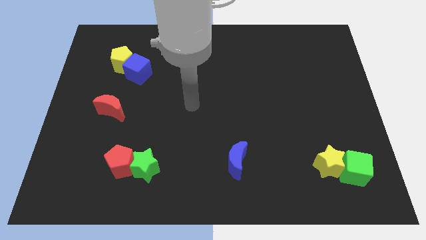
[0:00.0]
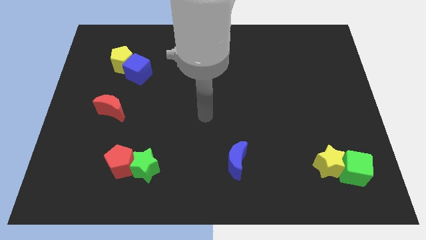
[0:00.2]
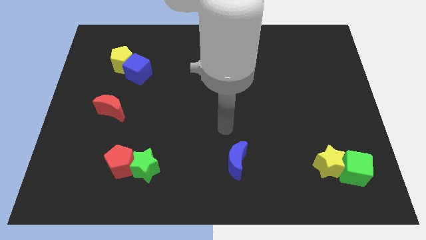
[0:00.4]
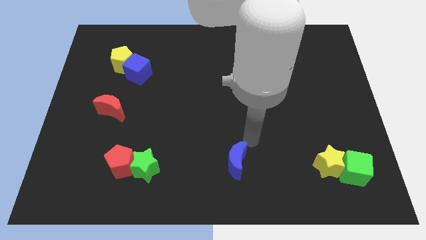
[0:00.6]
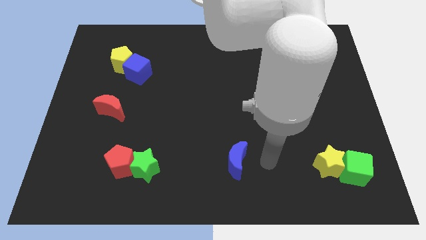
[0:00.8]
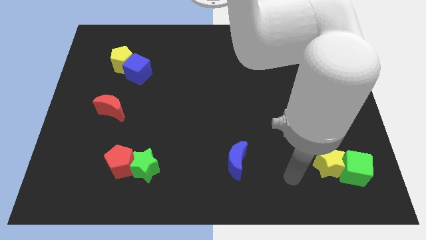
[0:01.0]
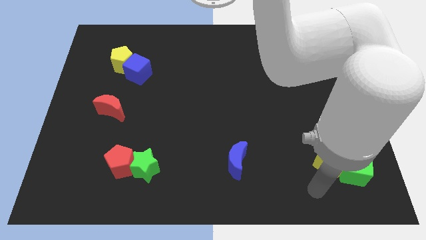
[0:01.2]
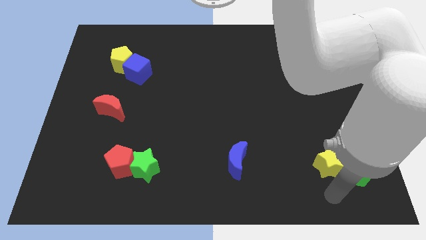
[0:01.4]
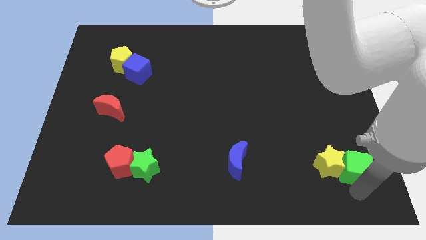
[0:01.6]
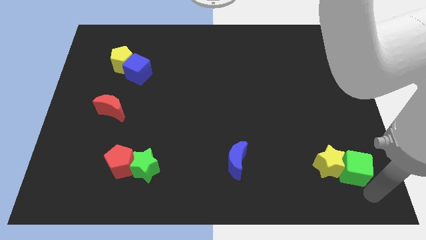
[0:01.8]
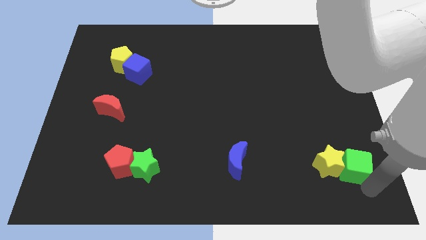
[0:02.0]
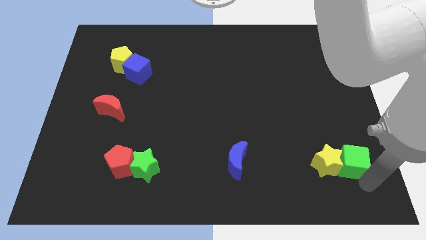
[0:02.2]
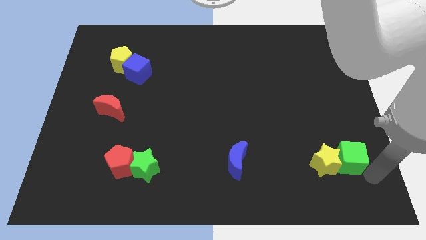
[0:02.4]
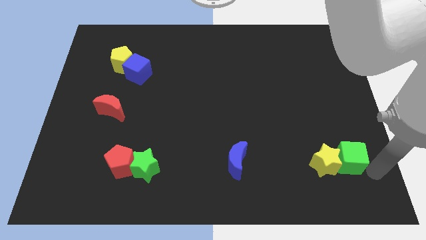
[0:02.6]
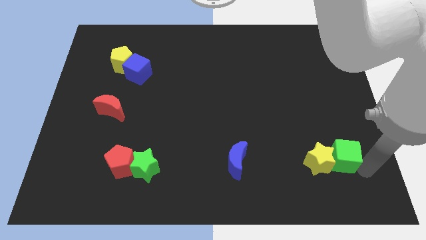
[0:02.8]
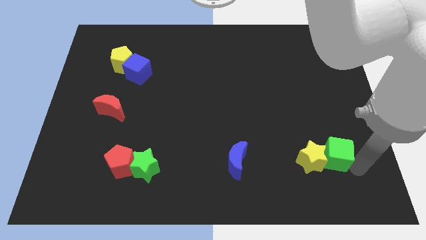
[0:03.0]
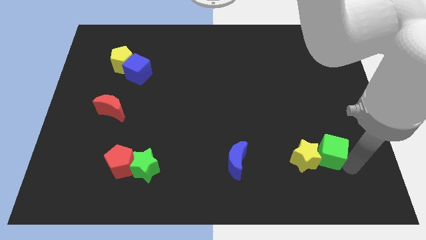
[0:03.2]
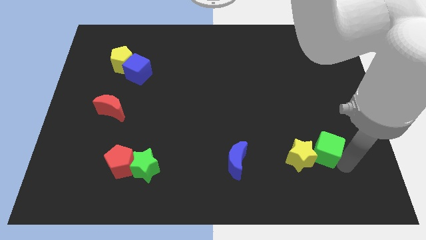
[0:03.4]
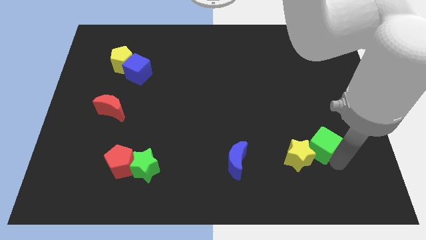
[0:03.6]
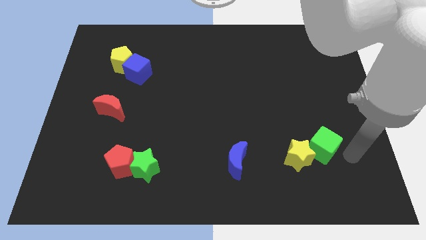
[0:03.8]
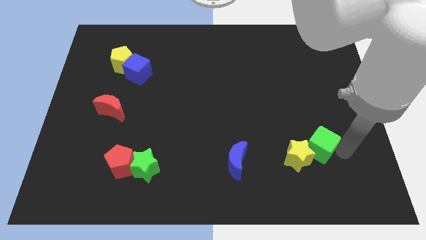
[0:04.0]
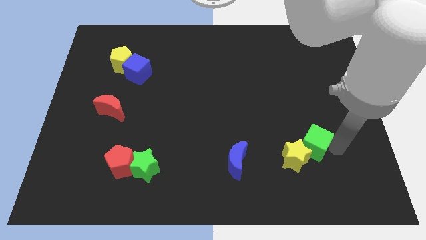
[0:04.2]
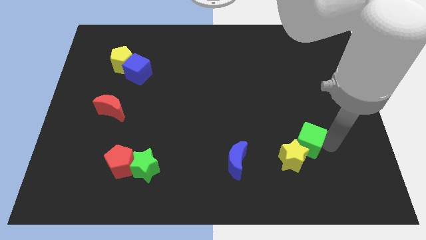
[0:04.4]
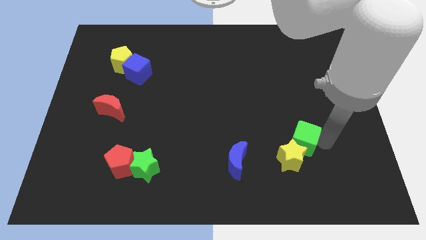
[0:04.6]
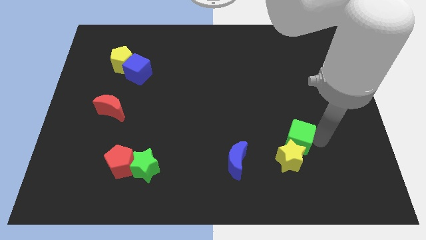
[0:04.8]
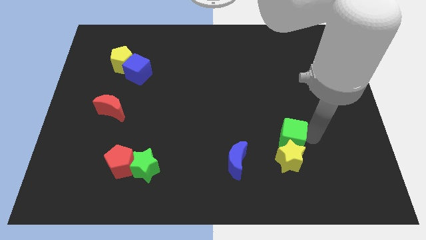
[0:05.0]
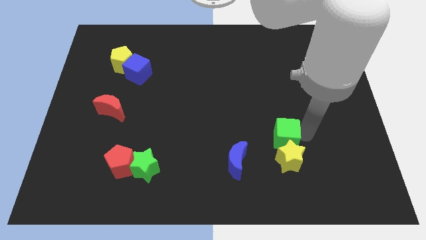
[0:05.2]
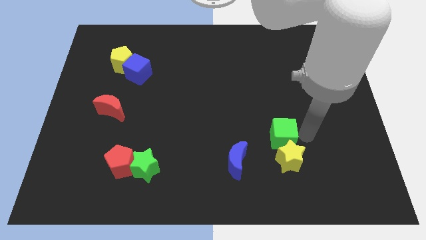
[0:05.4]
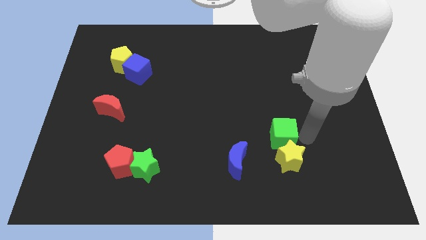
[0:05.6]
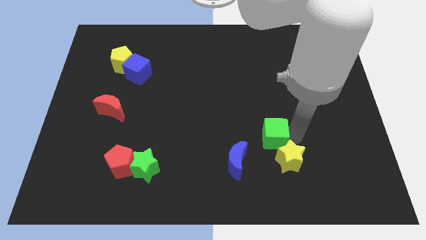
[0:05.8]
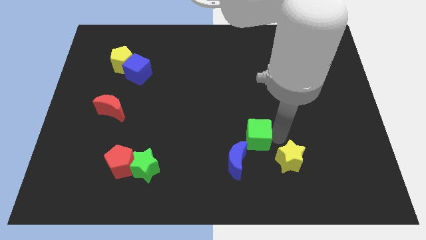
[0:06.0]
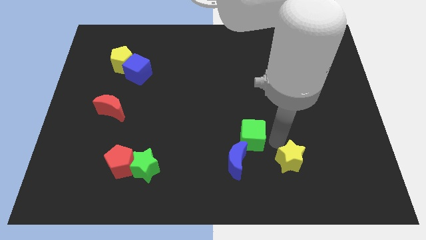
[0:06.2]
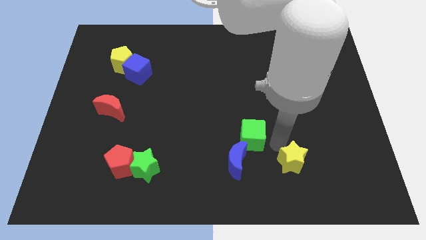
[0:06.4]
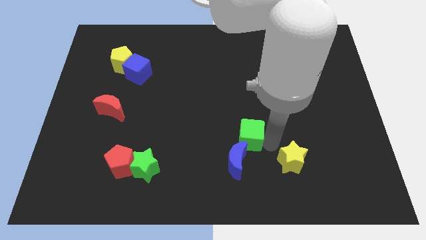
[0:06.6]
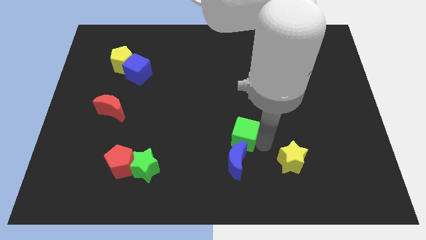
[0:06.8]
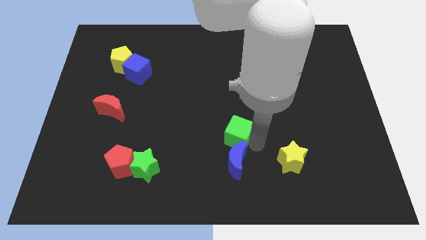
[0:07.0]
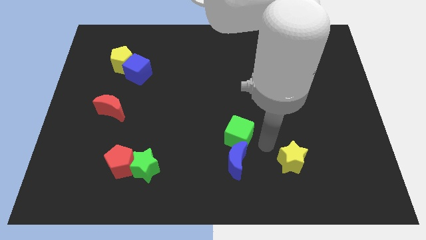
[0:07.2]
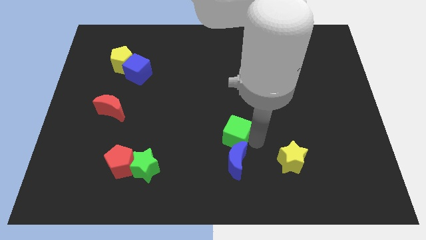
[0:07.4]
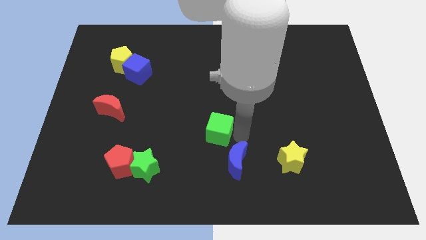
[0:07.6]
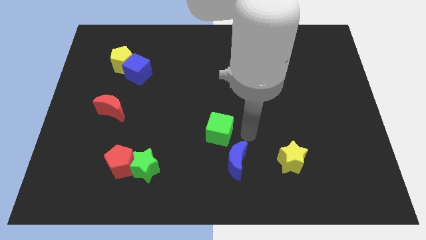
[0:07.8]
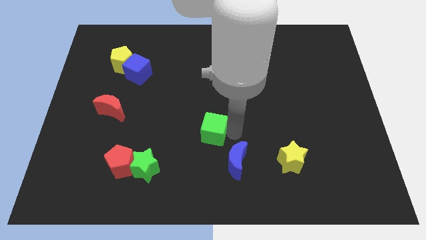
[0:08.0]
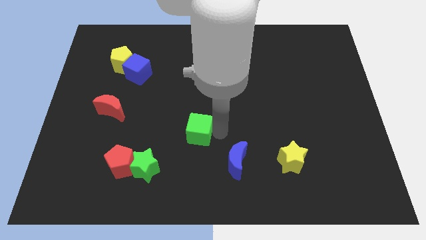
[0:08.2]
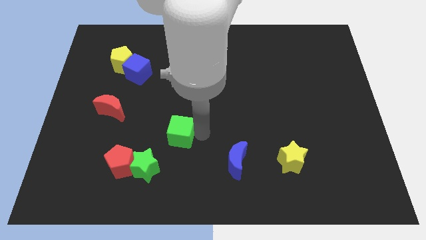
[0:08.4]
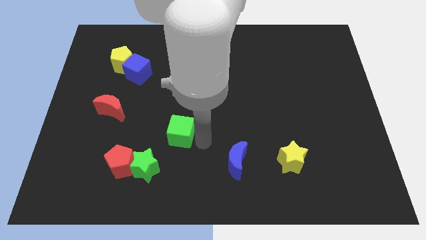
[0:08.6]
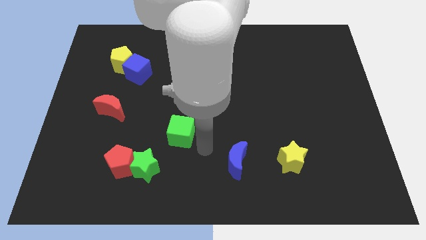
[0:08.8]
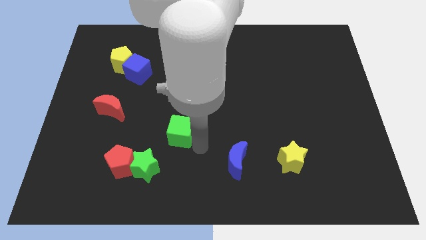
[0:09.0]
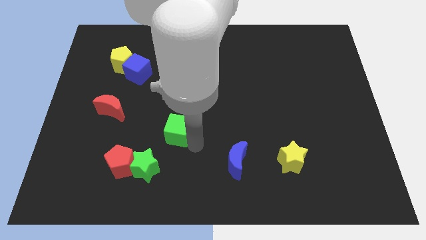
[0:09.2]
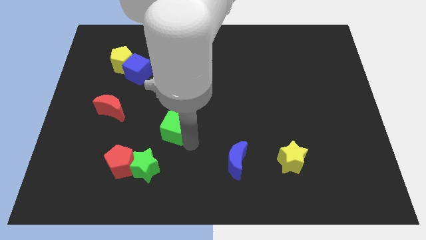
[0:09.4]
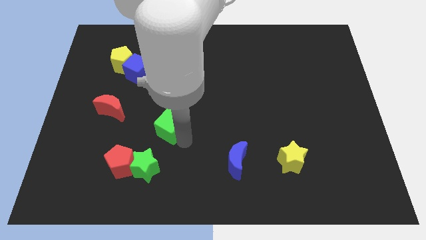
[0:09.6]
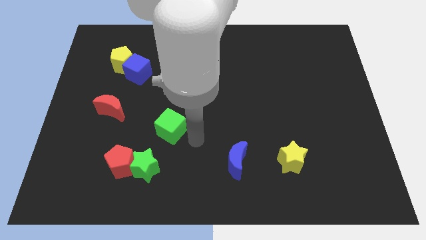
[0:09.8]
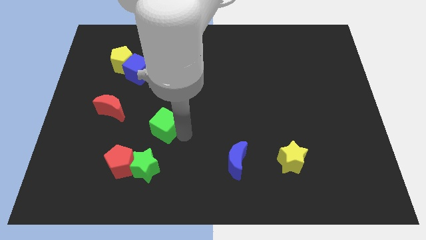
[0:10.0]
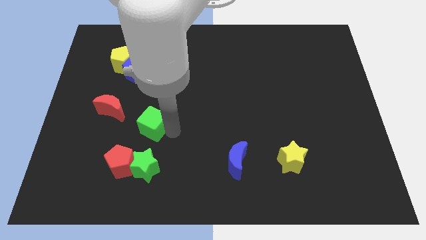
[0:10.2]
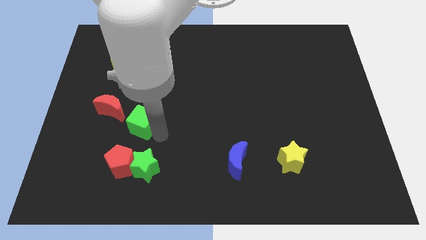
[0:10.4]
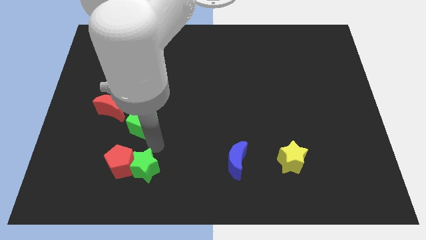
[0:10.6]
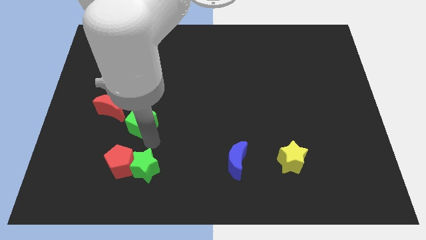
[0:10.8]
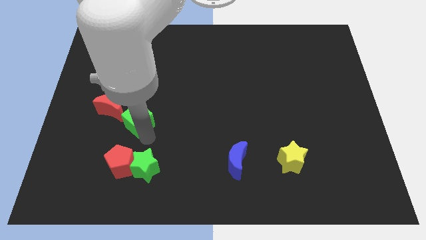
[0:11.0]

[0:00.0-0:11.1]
put the green cube to the bottom of the blue cube

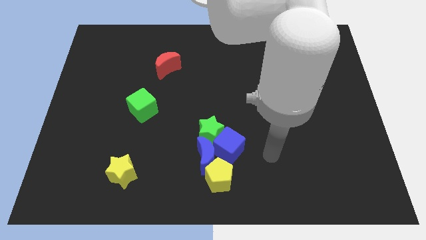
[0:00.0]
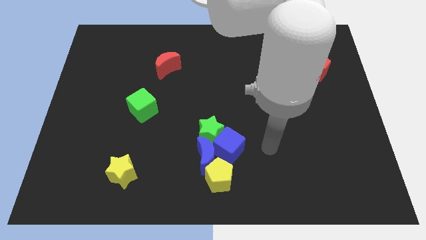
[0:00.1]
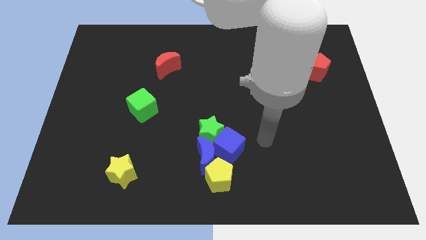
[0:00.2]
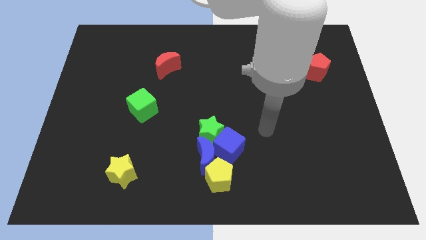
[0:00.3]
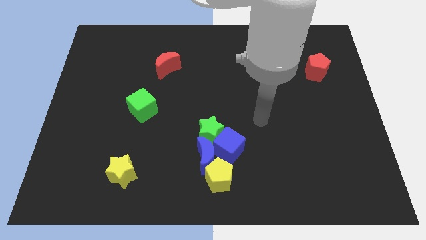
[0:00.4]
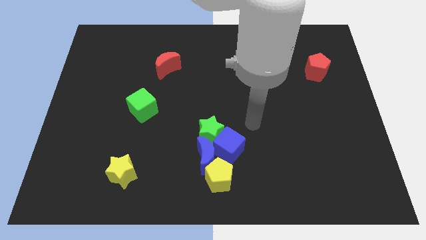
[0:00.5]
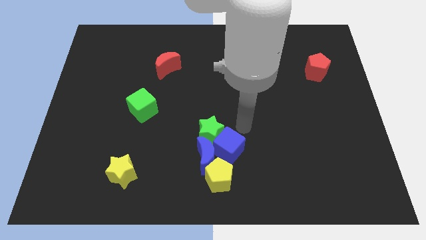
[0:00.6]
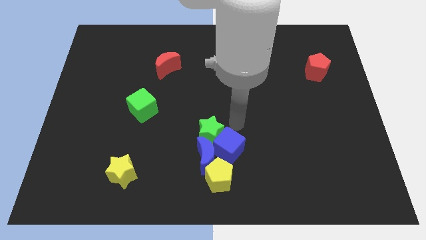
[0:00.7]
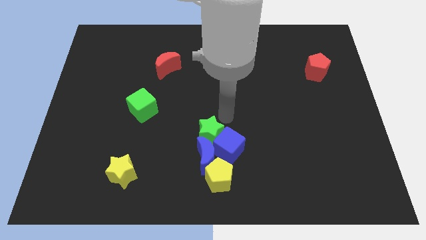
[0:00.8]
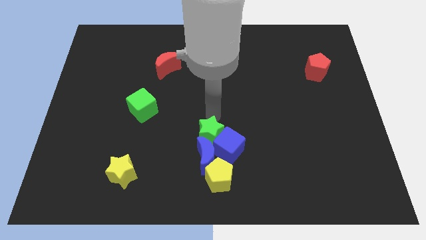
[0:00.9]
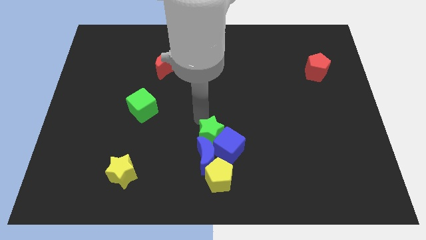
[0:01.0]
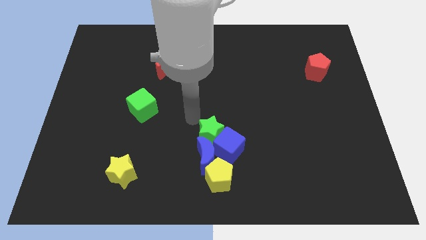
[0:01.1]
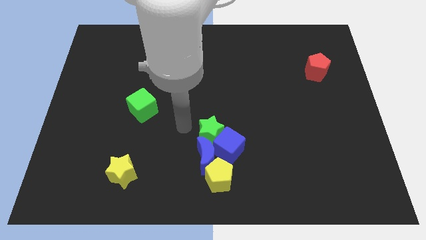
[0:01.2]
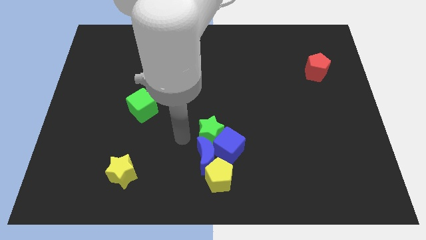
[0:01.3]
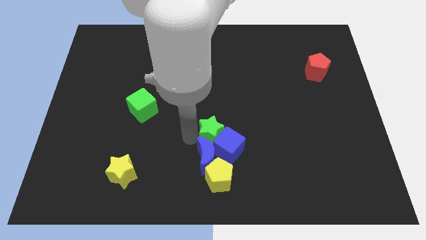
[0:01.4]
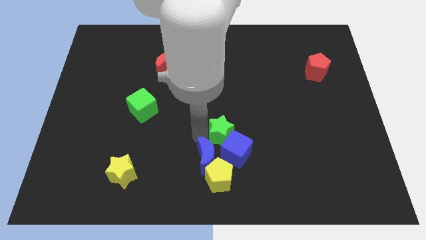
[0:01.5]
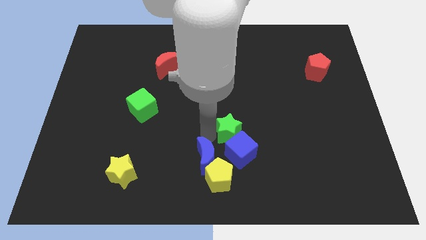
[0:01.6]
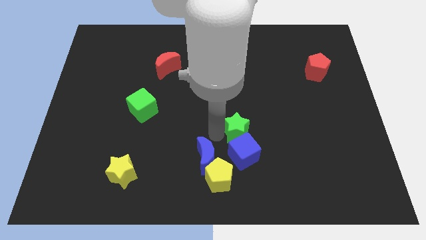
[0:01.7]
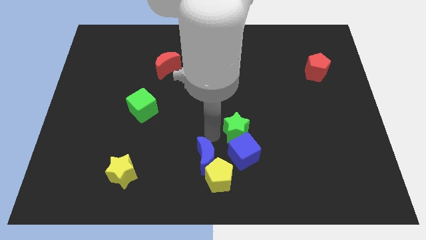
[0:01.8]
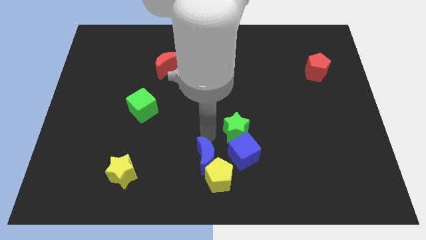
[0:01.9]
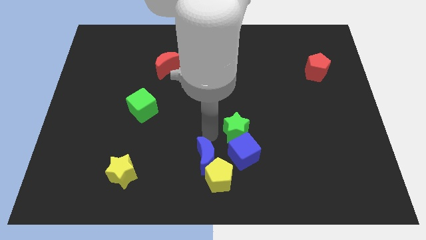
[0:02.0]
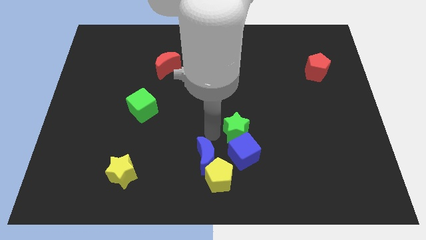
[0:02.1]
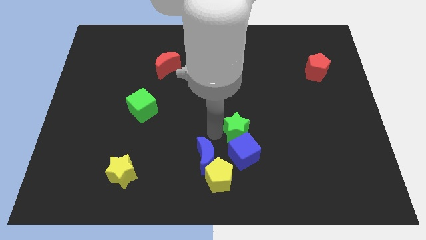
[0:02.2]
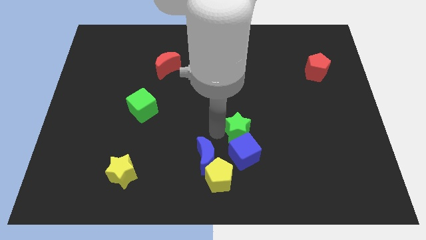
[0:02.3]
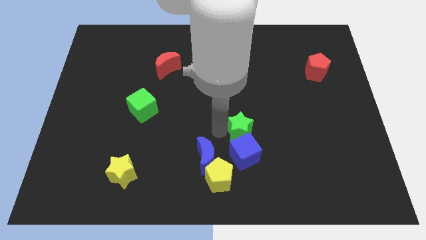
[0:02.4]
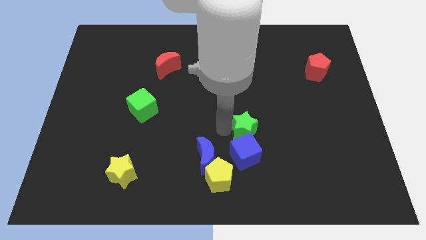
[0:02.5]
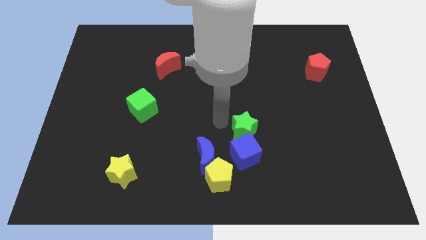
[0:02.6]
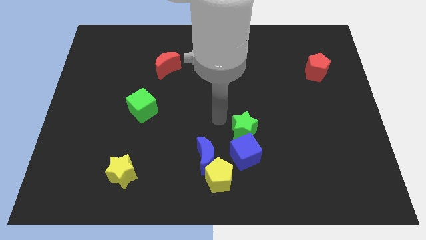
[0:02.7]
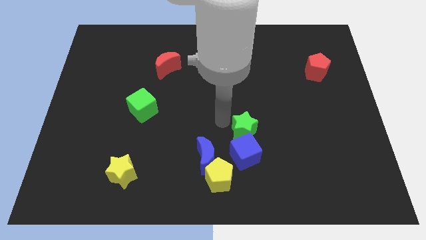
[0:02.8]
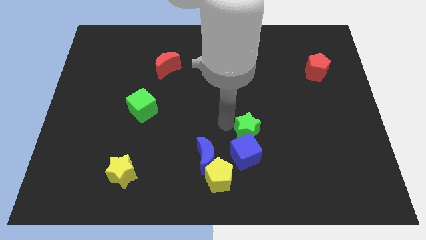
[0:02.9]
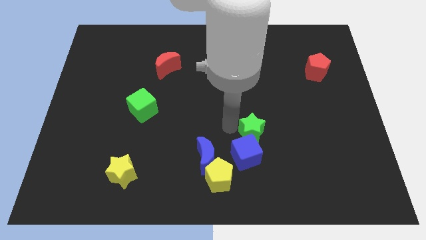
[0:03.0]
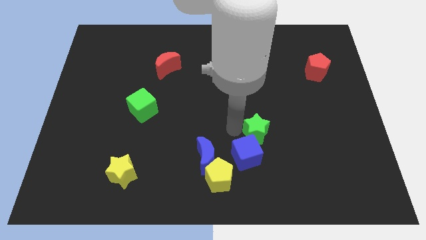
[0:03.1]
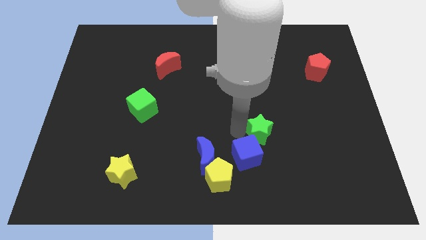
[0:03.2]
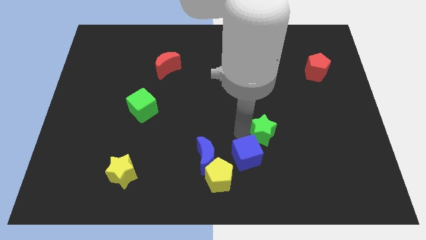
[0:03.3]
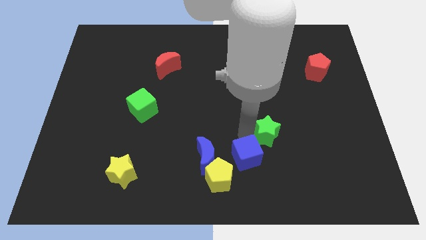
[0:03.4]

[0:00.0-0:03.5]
move the green star just right of the blue cube
